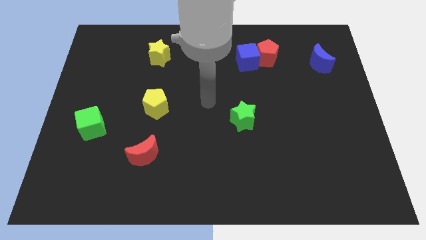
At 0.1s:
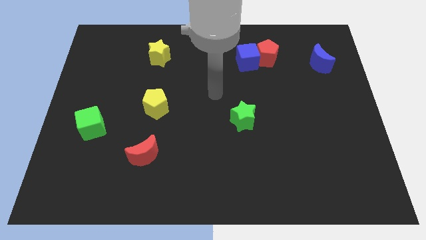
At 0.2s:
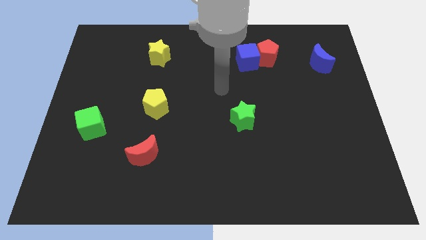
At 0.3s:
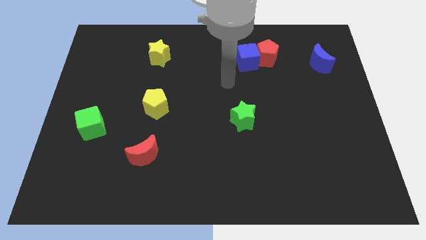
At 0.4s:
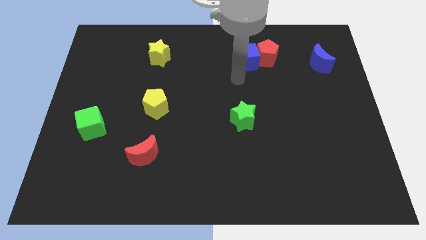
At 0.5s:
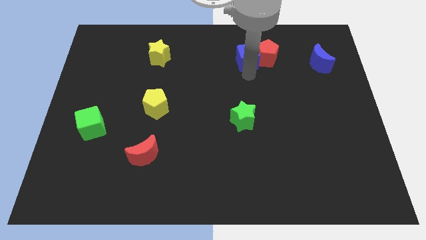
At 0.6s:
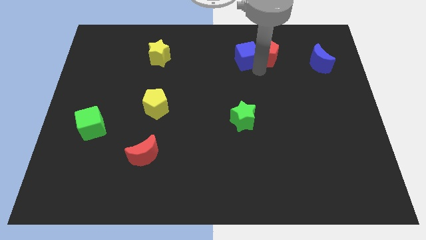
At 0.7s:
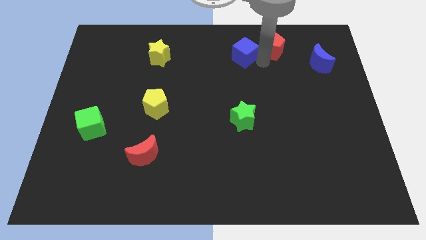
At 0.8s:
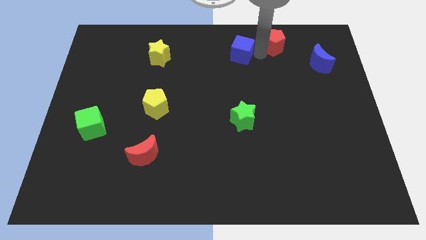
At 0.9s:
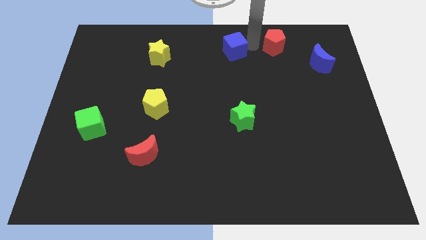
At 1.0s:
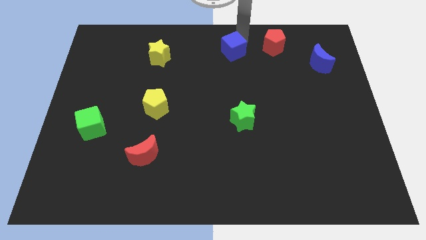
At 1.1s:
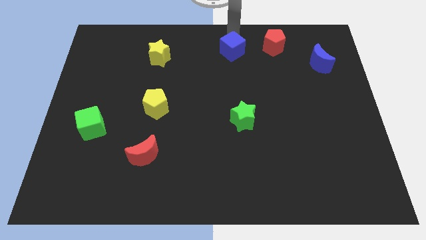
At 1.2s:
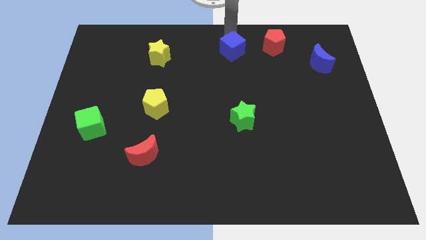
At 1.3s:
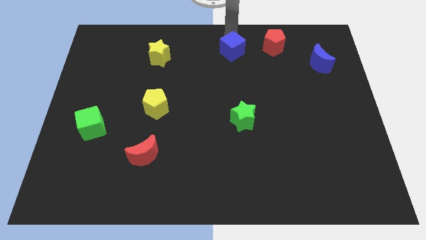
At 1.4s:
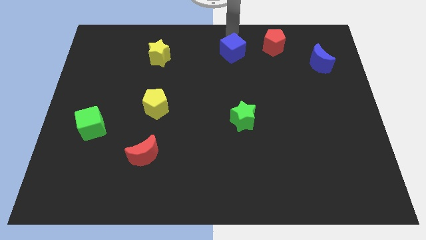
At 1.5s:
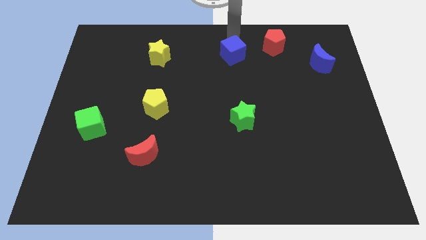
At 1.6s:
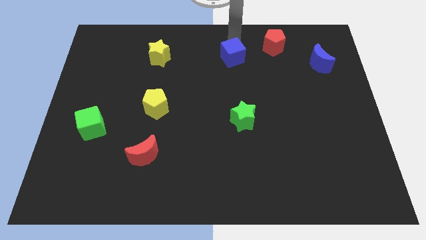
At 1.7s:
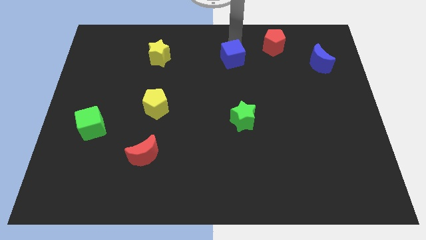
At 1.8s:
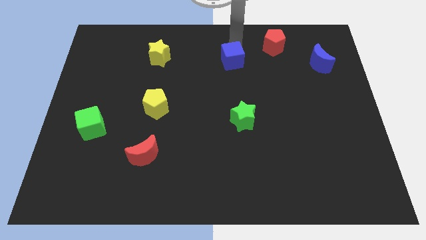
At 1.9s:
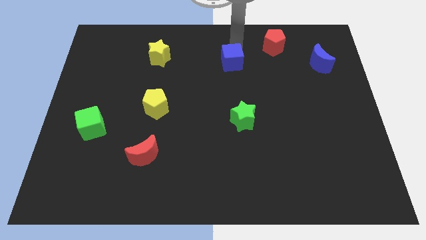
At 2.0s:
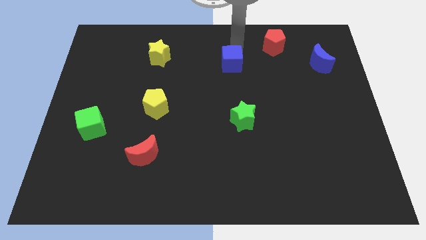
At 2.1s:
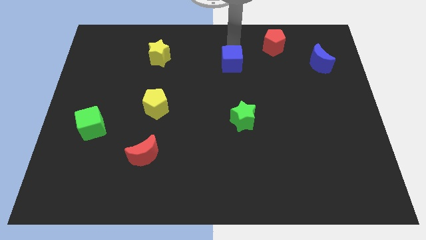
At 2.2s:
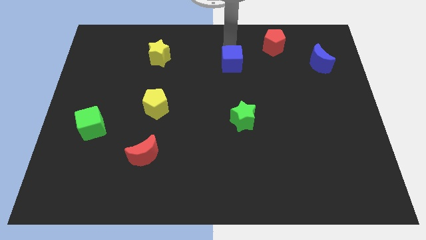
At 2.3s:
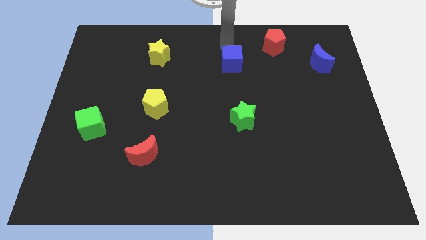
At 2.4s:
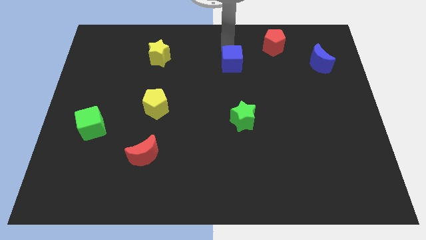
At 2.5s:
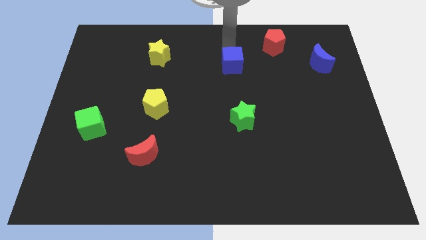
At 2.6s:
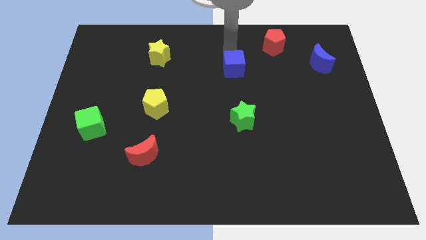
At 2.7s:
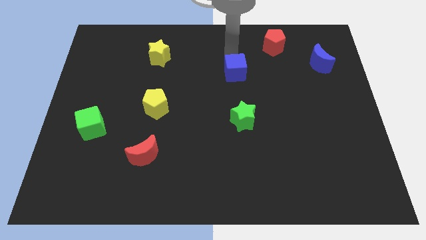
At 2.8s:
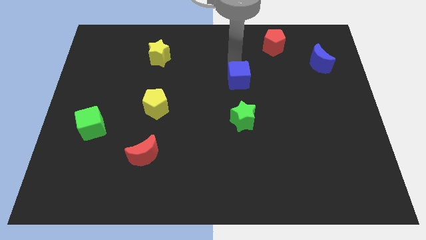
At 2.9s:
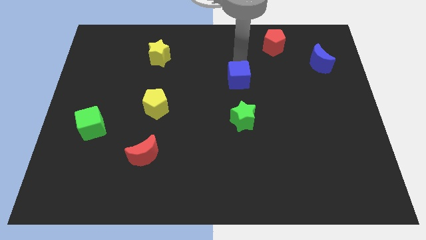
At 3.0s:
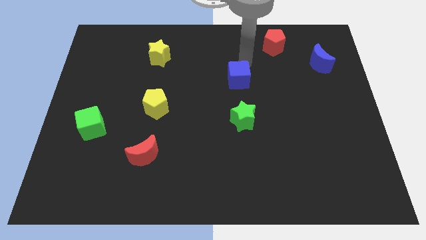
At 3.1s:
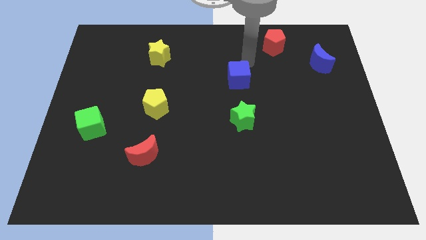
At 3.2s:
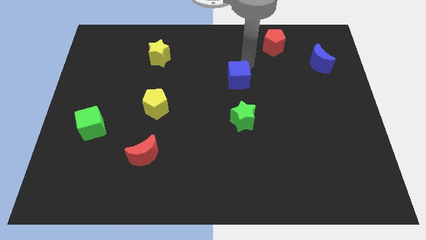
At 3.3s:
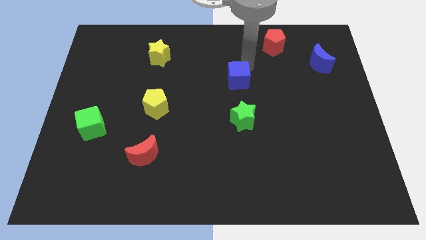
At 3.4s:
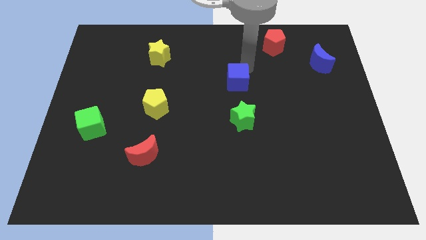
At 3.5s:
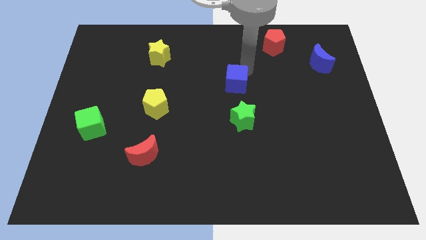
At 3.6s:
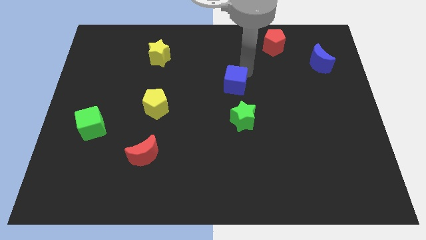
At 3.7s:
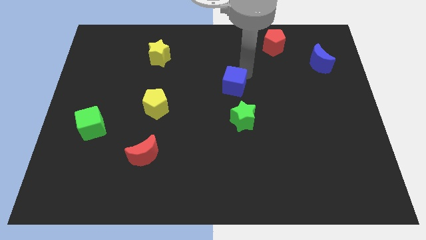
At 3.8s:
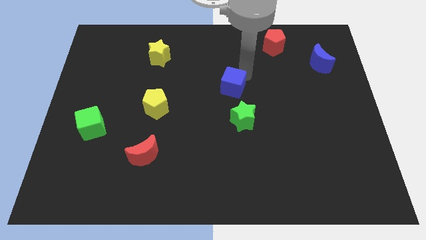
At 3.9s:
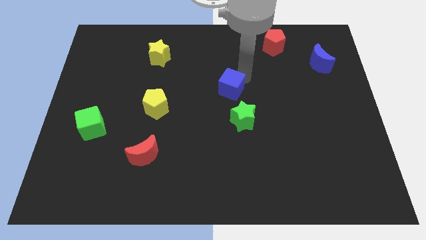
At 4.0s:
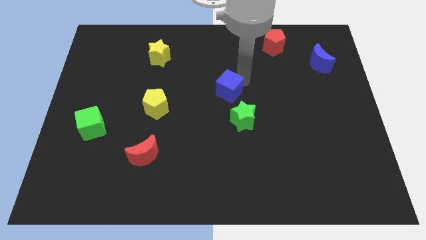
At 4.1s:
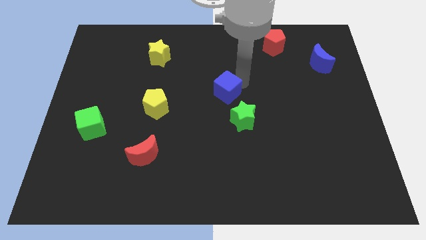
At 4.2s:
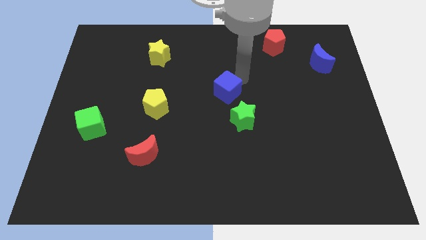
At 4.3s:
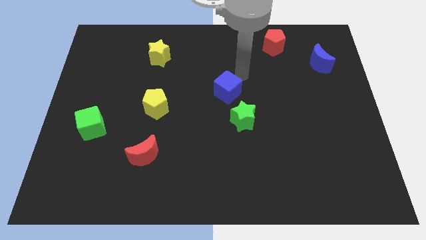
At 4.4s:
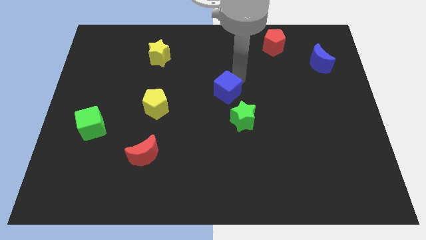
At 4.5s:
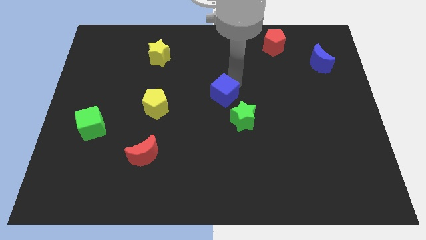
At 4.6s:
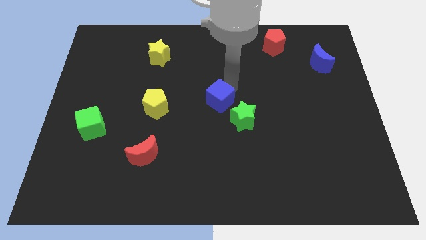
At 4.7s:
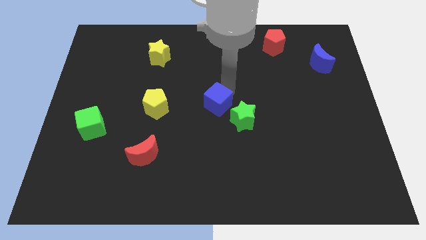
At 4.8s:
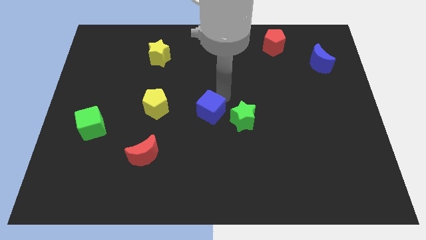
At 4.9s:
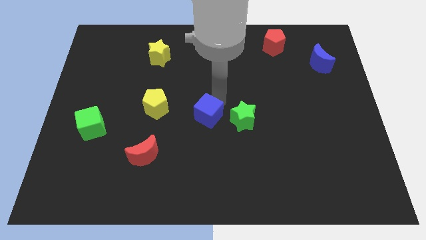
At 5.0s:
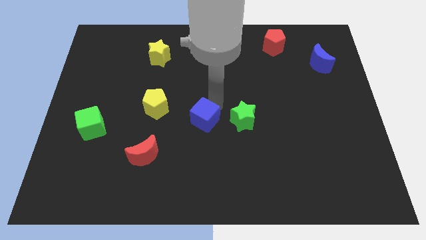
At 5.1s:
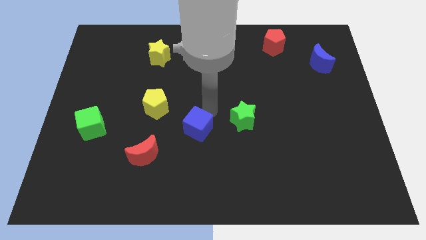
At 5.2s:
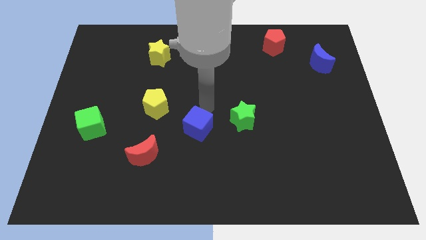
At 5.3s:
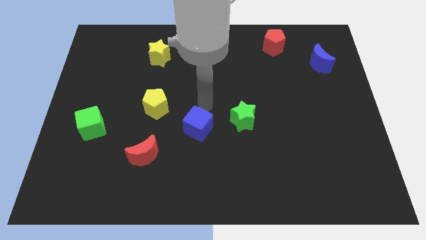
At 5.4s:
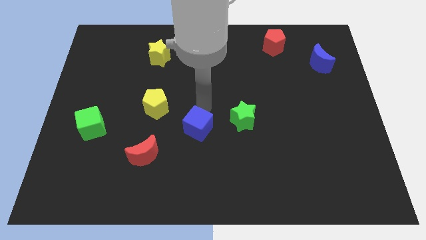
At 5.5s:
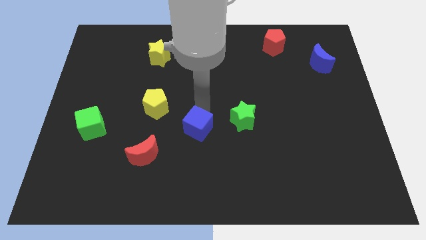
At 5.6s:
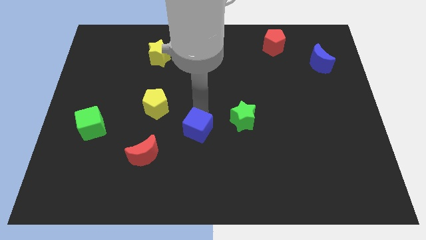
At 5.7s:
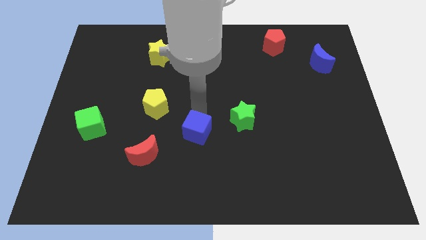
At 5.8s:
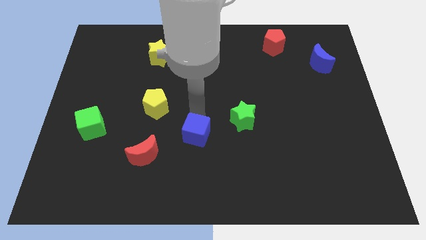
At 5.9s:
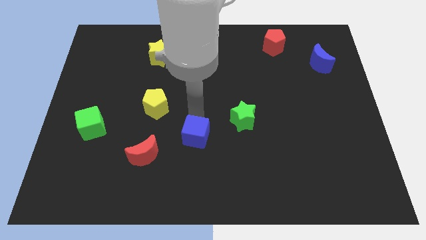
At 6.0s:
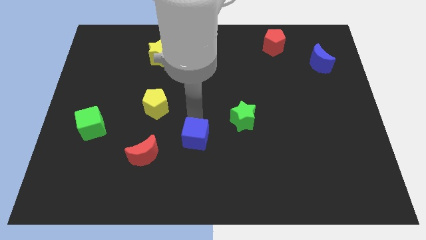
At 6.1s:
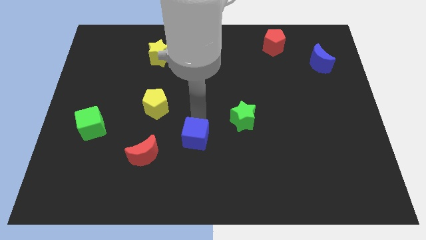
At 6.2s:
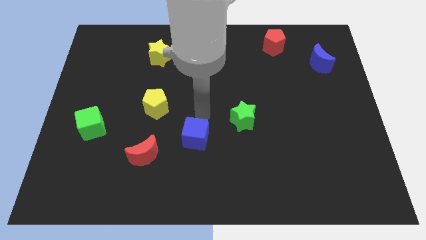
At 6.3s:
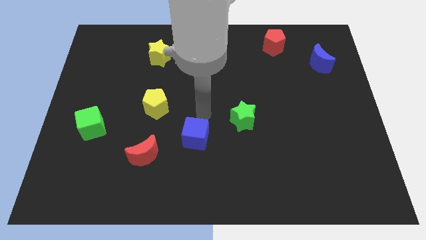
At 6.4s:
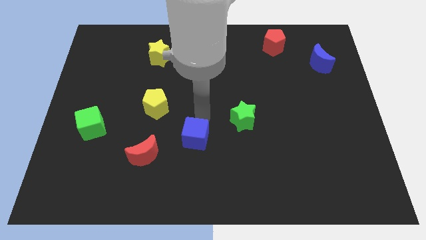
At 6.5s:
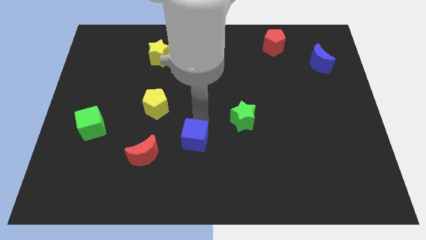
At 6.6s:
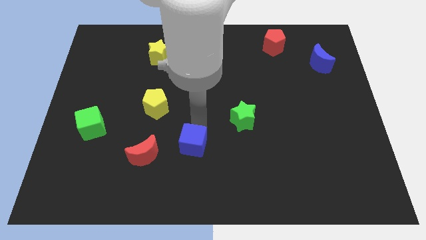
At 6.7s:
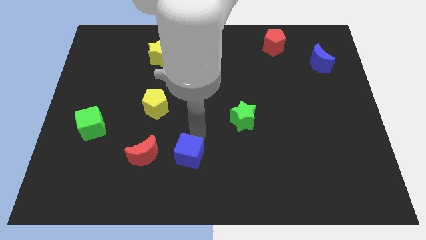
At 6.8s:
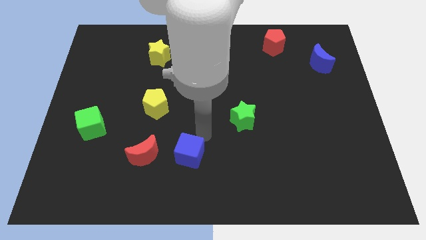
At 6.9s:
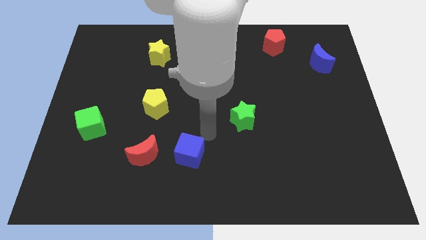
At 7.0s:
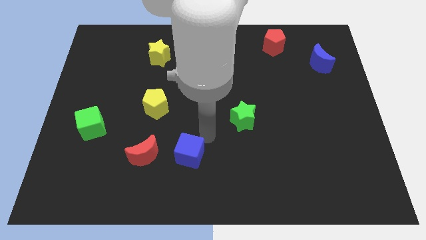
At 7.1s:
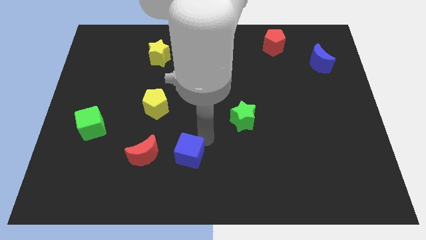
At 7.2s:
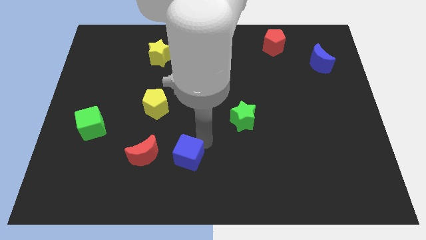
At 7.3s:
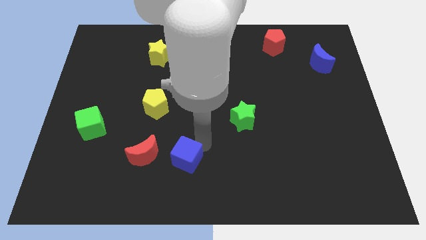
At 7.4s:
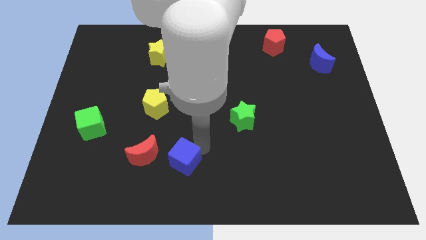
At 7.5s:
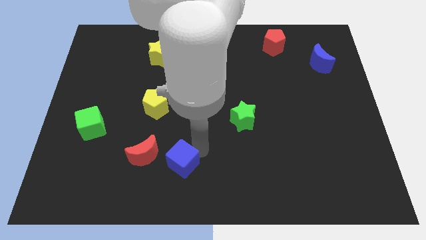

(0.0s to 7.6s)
put the blue cube diagonally down and to the right of the red moon
